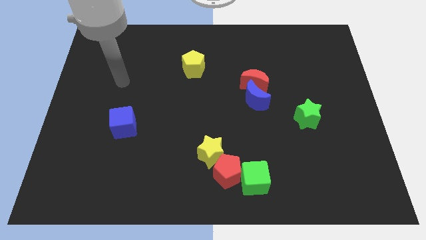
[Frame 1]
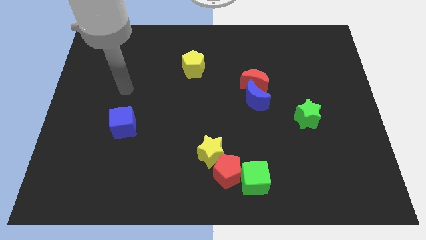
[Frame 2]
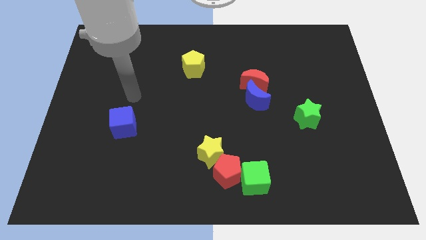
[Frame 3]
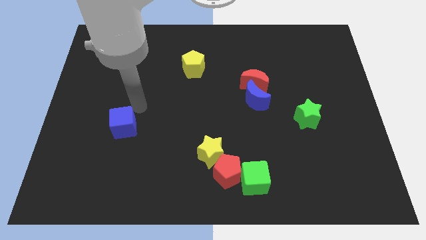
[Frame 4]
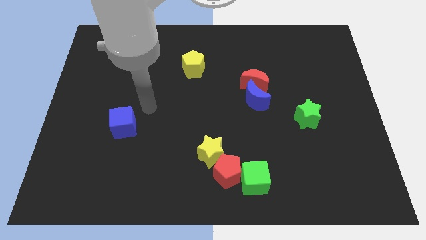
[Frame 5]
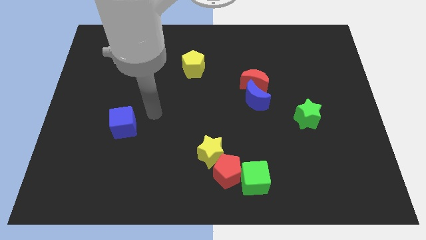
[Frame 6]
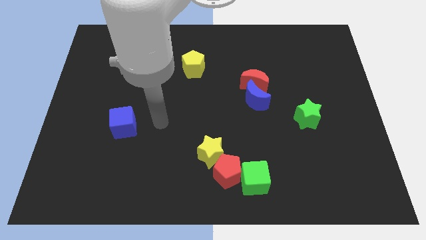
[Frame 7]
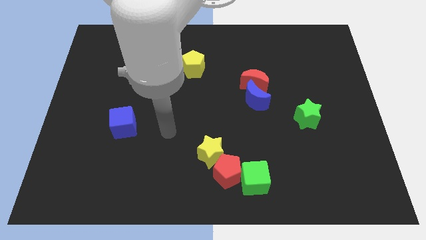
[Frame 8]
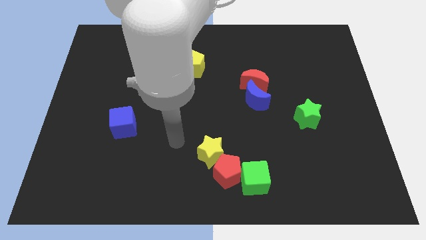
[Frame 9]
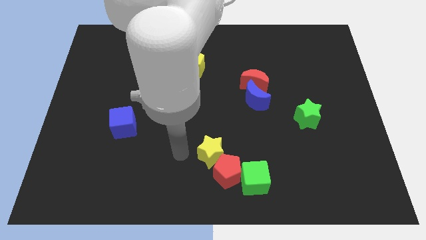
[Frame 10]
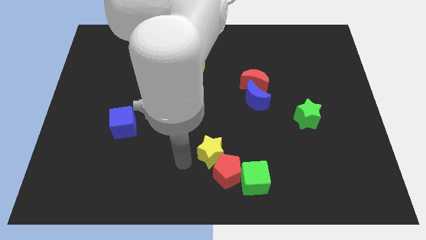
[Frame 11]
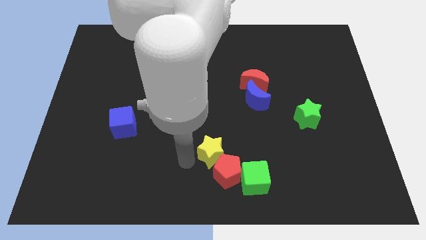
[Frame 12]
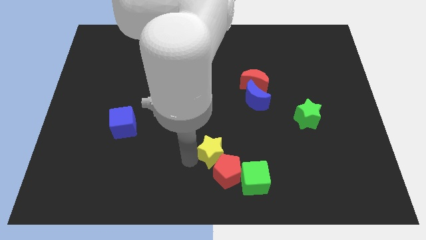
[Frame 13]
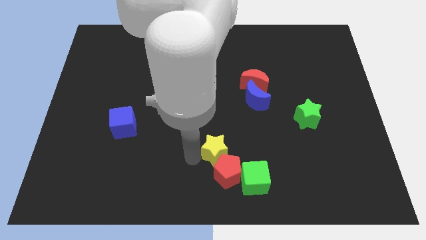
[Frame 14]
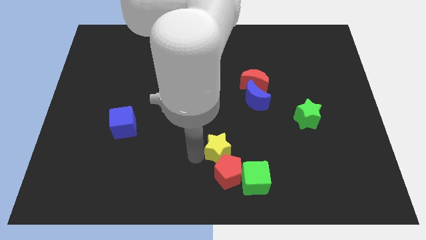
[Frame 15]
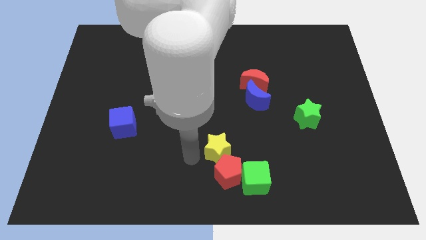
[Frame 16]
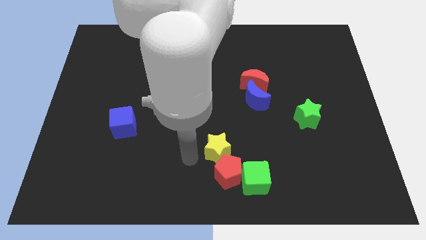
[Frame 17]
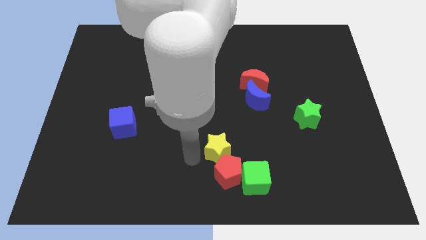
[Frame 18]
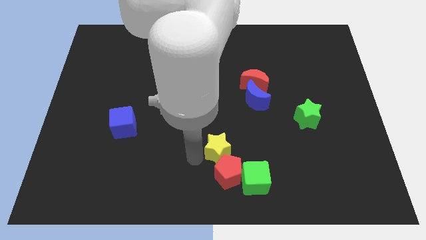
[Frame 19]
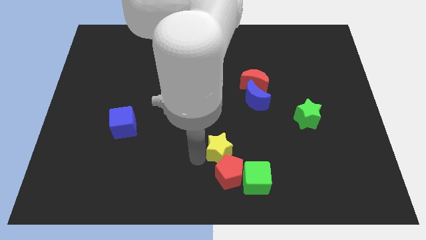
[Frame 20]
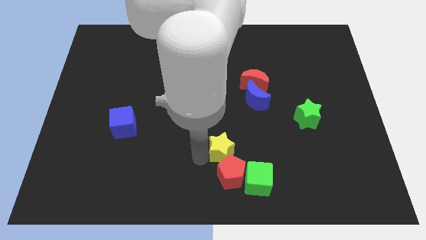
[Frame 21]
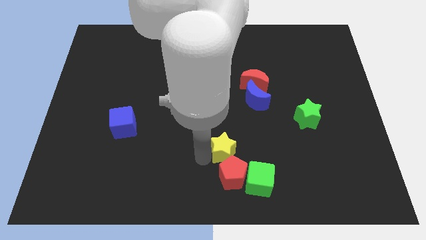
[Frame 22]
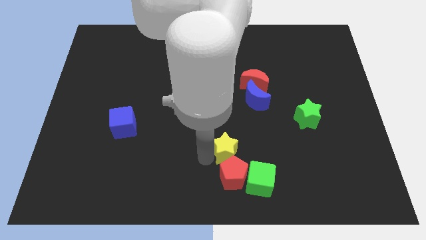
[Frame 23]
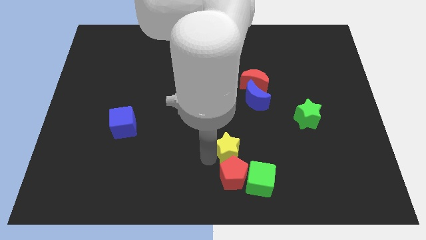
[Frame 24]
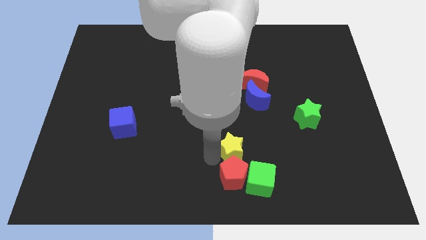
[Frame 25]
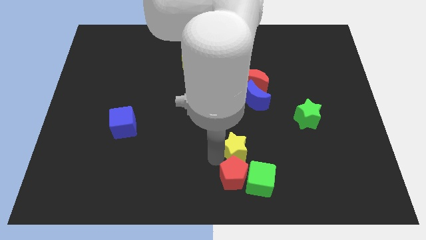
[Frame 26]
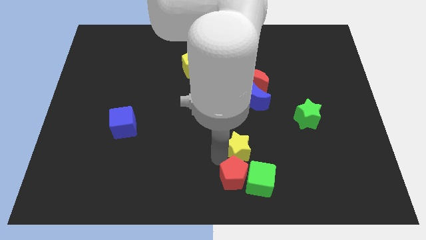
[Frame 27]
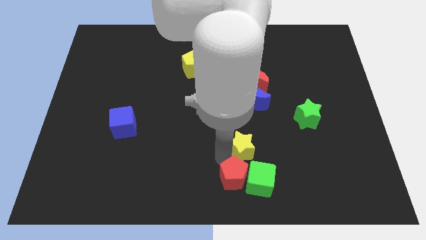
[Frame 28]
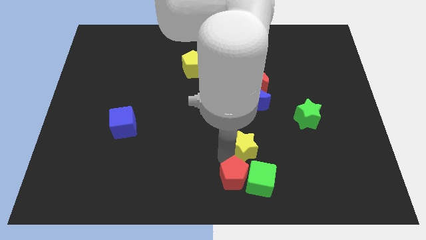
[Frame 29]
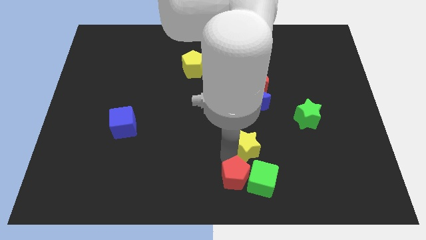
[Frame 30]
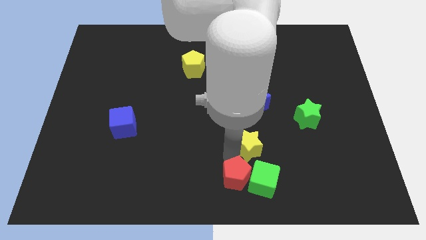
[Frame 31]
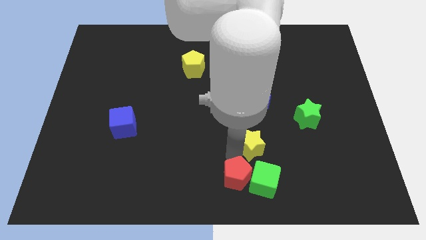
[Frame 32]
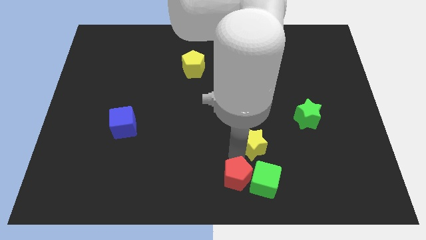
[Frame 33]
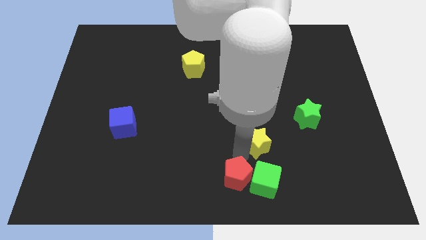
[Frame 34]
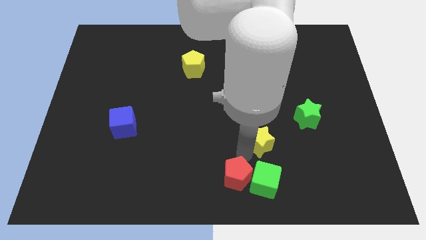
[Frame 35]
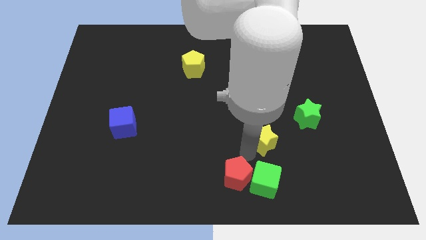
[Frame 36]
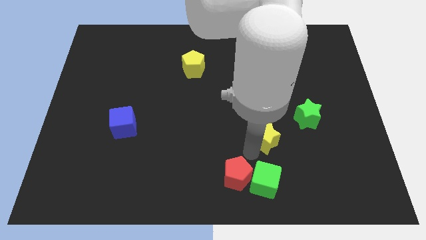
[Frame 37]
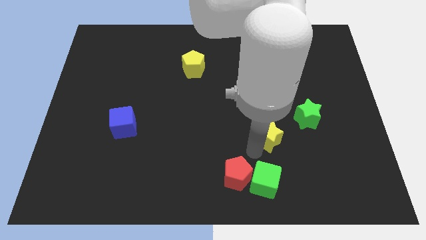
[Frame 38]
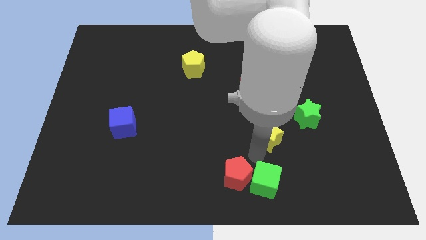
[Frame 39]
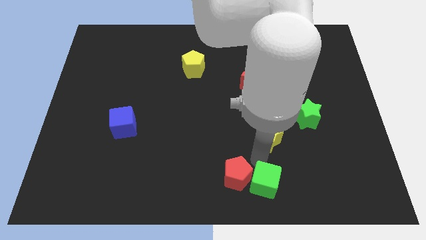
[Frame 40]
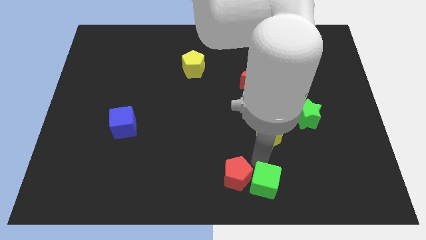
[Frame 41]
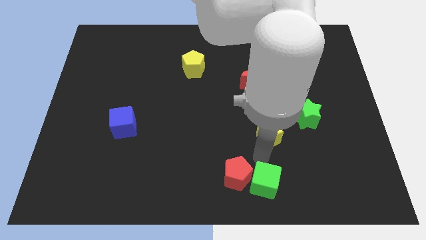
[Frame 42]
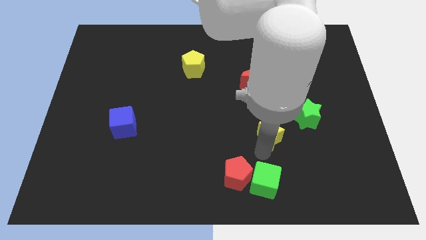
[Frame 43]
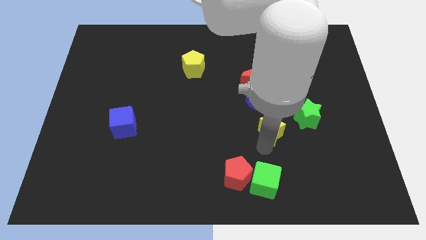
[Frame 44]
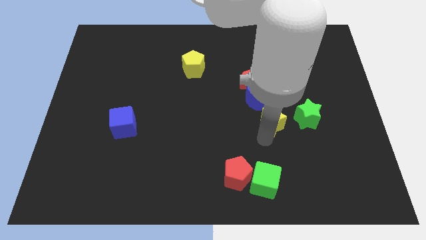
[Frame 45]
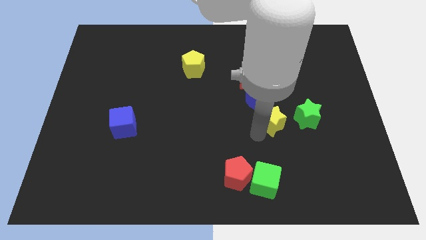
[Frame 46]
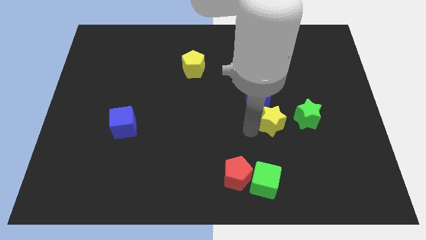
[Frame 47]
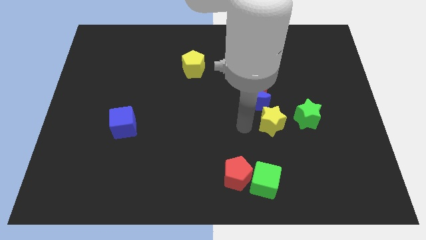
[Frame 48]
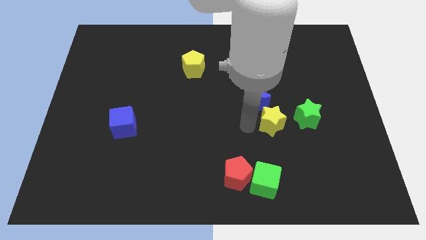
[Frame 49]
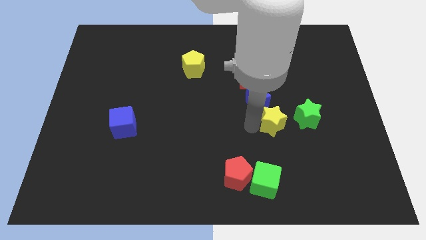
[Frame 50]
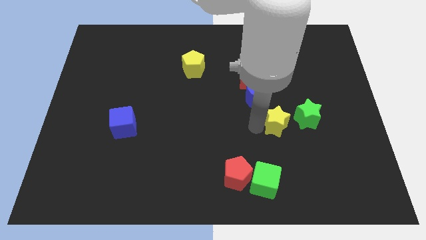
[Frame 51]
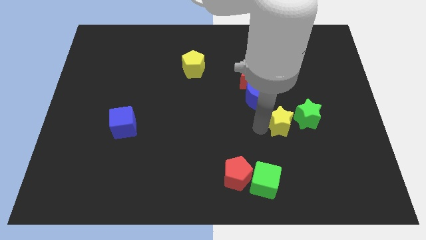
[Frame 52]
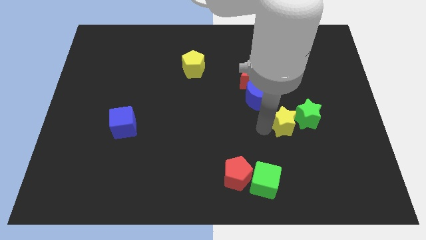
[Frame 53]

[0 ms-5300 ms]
put the yellow star towards the green star

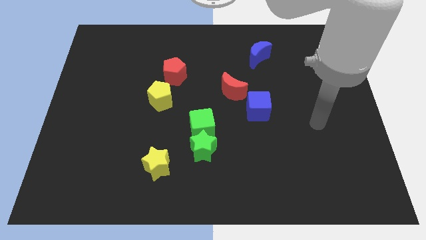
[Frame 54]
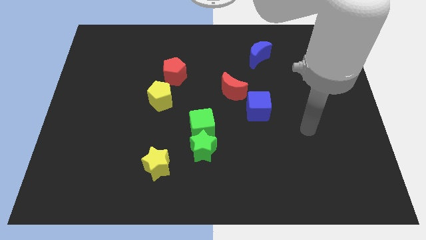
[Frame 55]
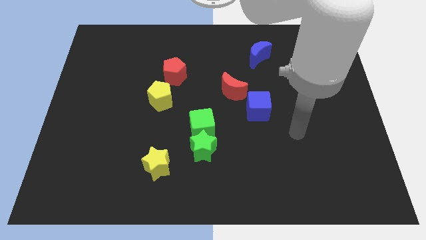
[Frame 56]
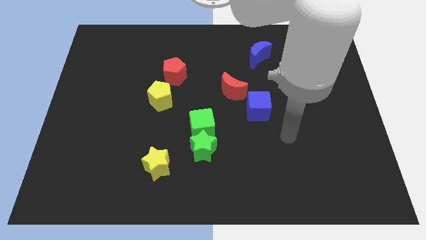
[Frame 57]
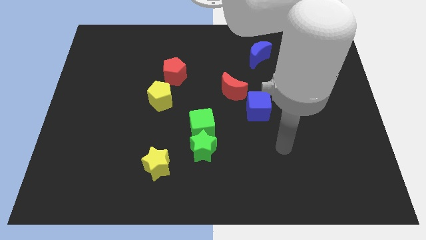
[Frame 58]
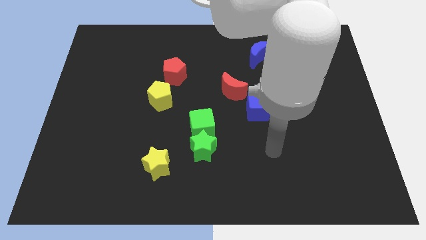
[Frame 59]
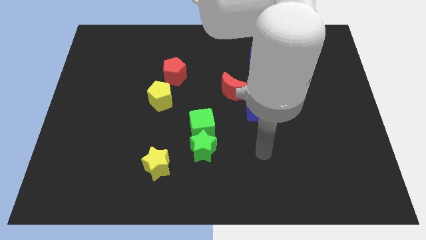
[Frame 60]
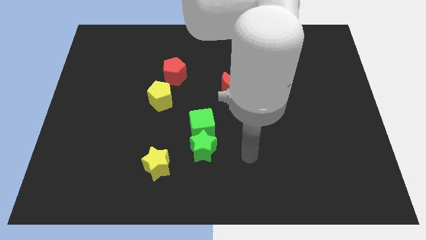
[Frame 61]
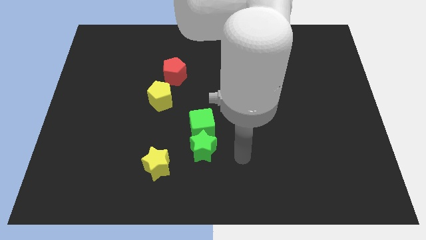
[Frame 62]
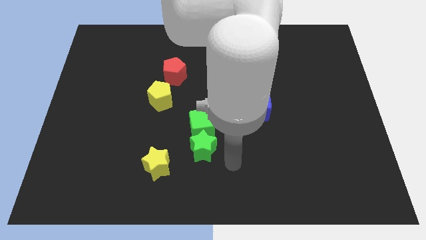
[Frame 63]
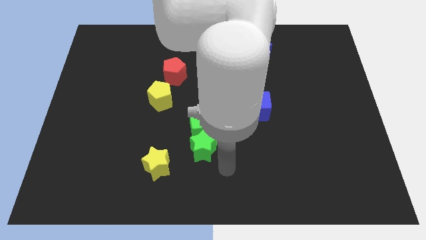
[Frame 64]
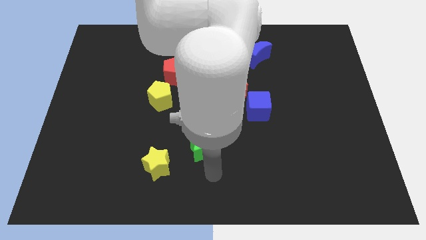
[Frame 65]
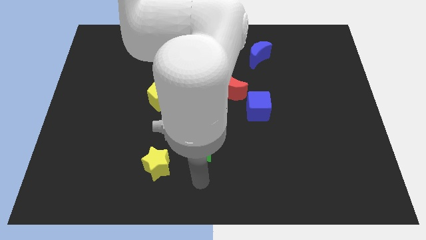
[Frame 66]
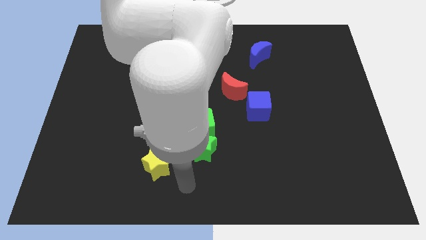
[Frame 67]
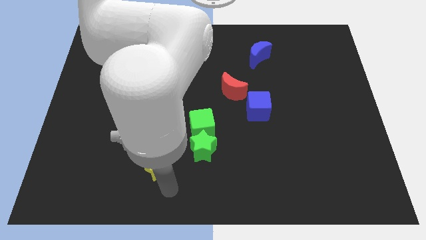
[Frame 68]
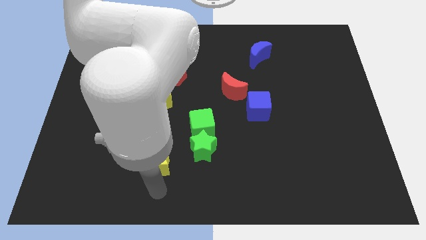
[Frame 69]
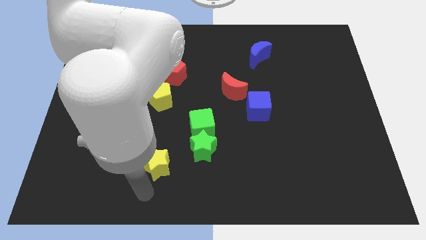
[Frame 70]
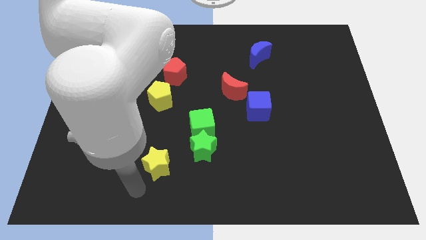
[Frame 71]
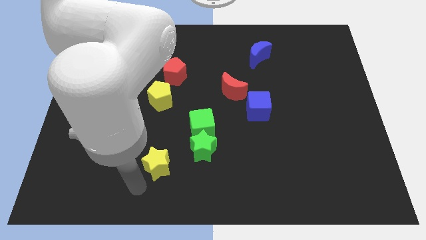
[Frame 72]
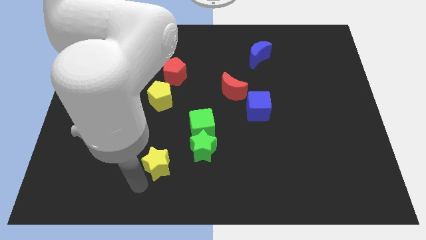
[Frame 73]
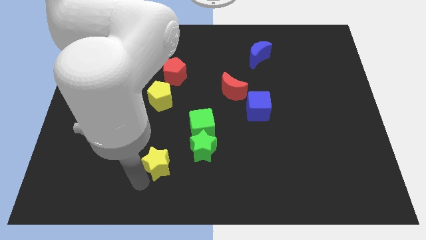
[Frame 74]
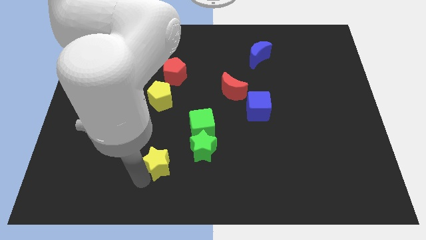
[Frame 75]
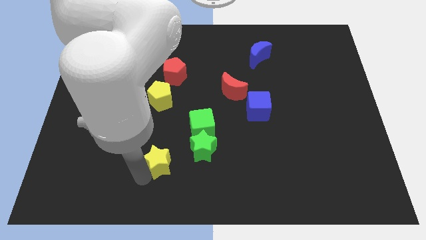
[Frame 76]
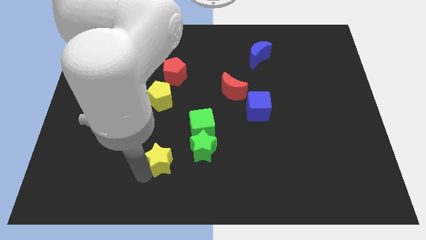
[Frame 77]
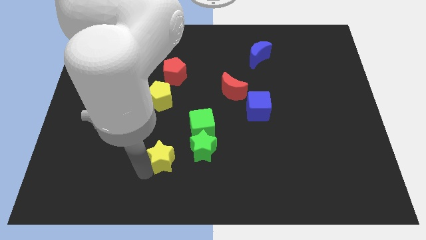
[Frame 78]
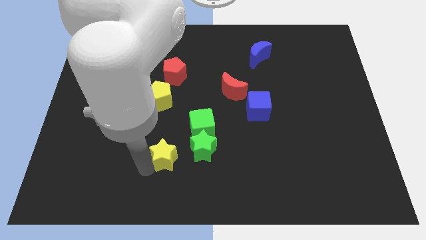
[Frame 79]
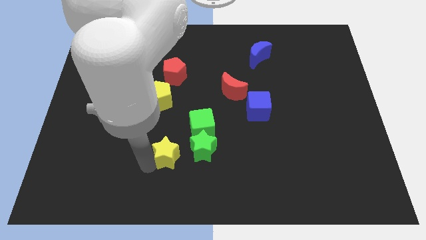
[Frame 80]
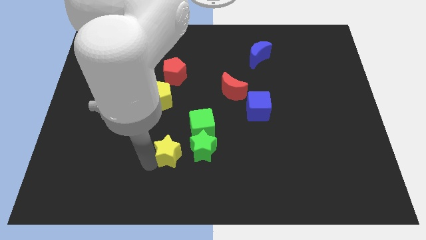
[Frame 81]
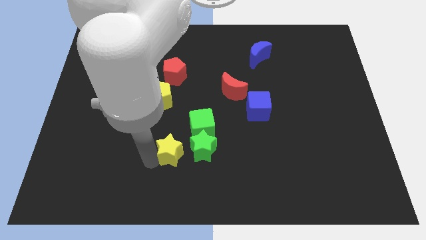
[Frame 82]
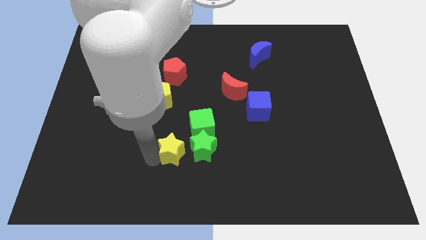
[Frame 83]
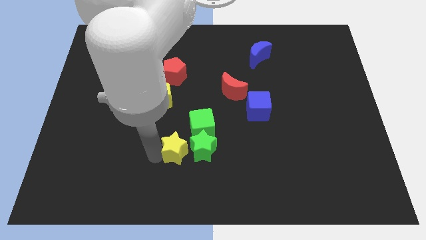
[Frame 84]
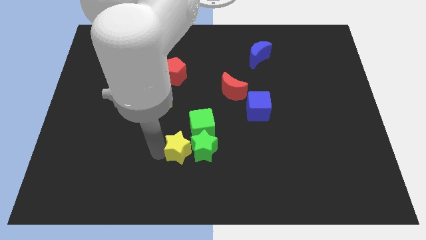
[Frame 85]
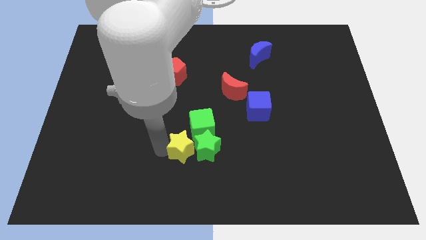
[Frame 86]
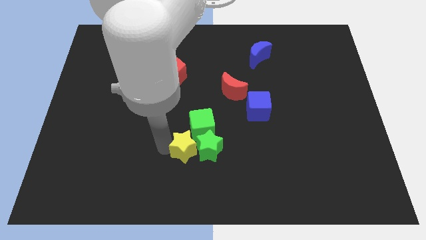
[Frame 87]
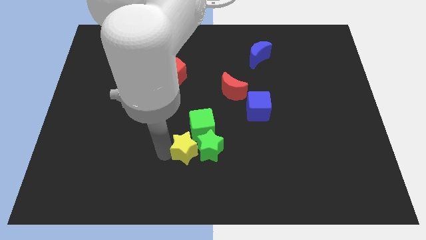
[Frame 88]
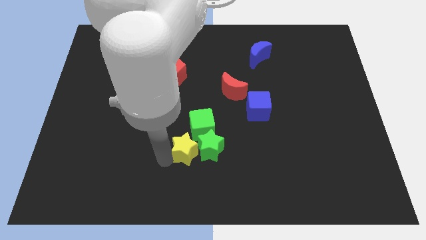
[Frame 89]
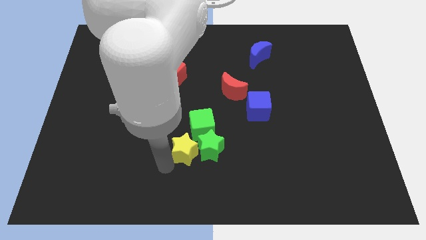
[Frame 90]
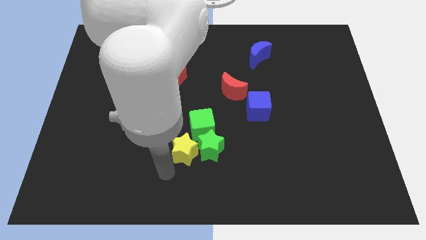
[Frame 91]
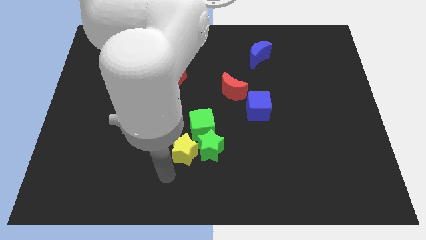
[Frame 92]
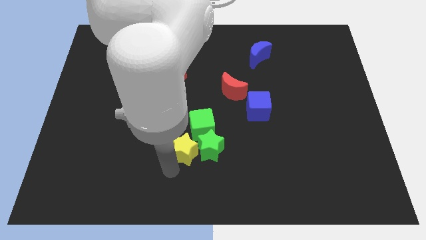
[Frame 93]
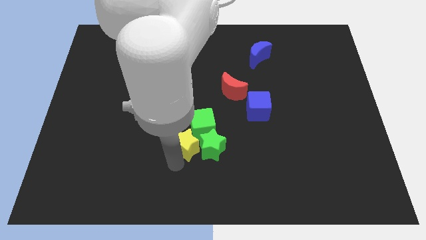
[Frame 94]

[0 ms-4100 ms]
slide the yellow star to the green cube
